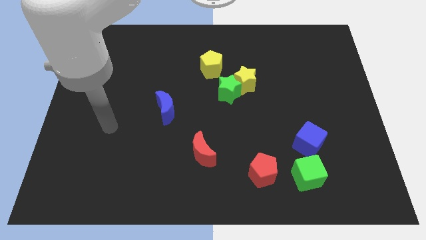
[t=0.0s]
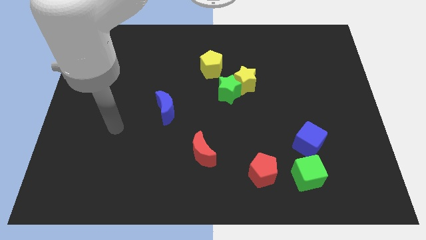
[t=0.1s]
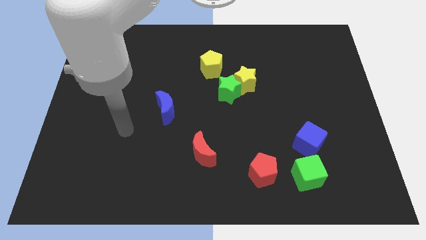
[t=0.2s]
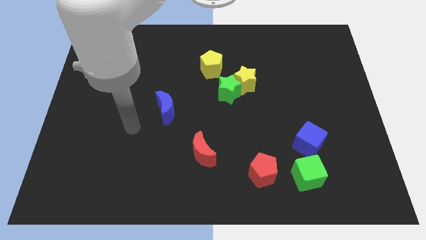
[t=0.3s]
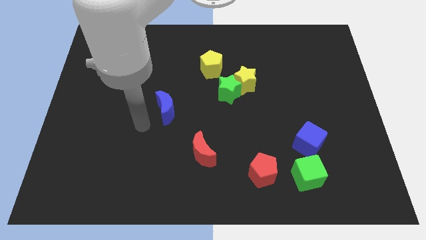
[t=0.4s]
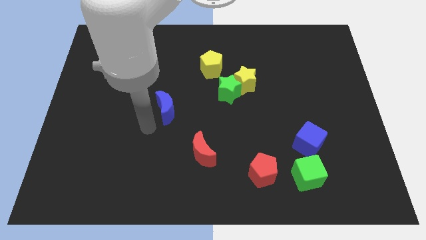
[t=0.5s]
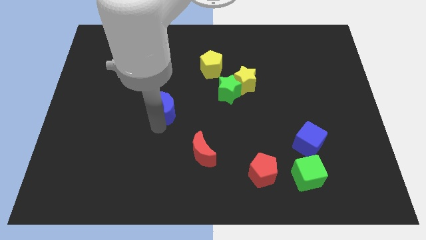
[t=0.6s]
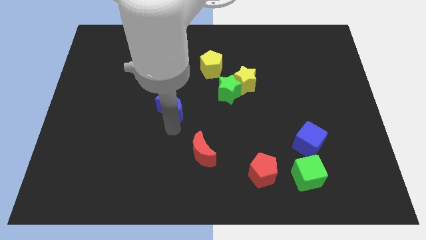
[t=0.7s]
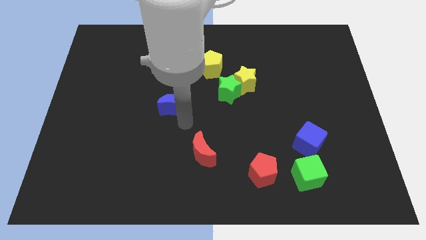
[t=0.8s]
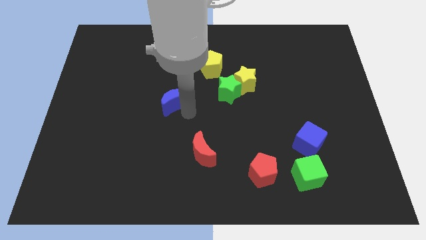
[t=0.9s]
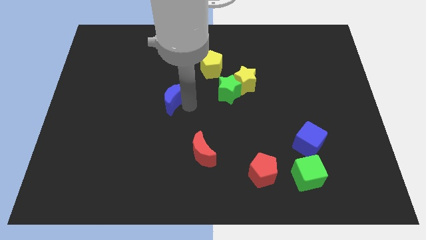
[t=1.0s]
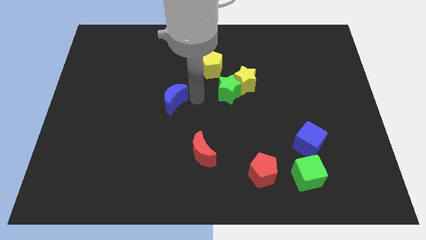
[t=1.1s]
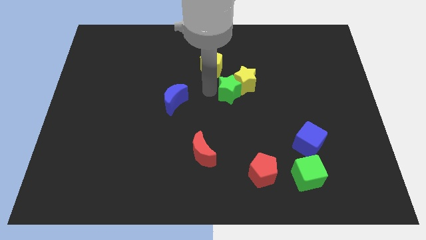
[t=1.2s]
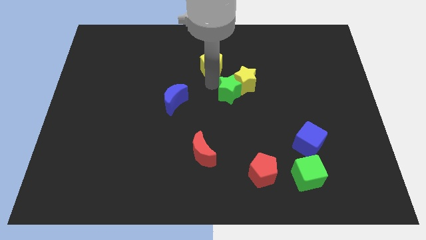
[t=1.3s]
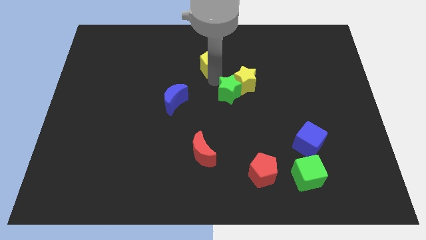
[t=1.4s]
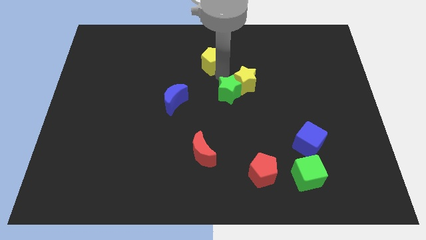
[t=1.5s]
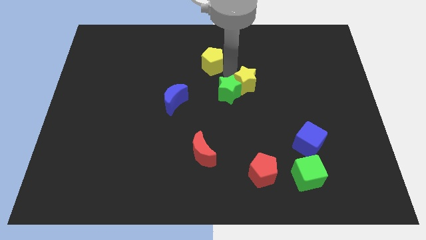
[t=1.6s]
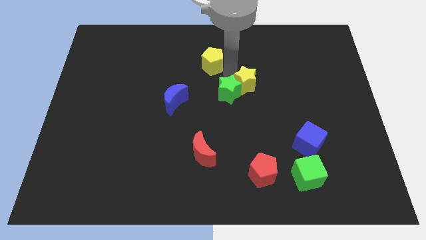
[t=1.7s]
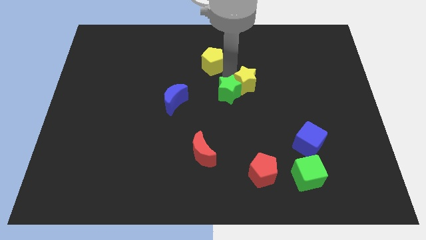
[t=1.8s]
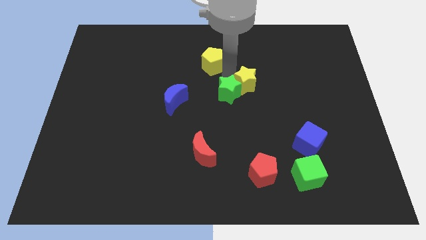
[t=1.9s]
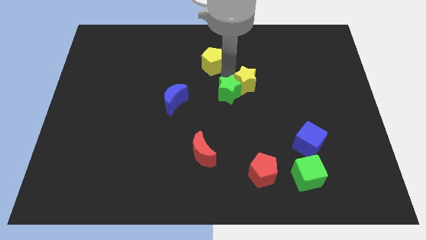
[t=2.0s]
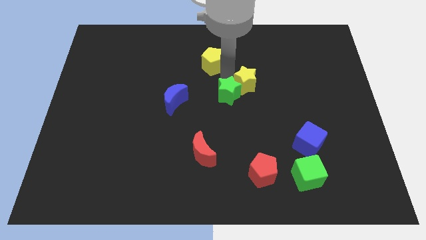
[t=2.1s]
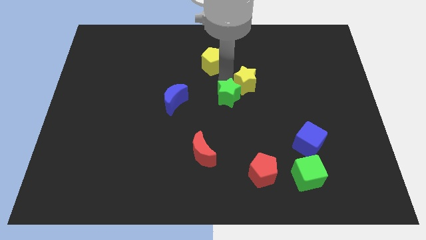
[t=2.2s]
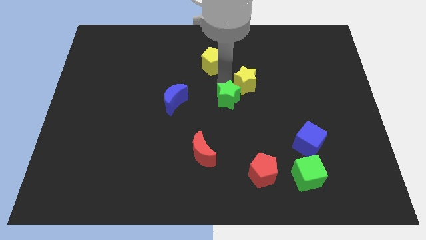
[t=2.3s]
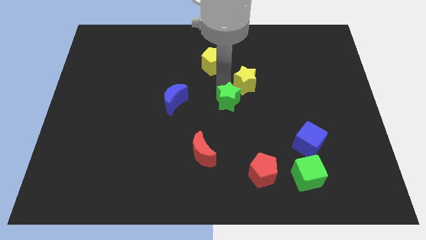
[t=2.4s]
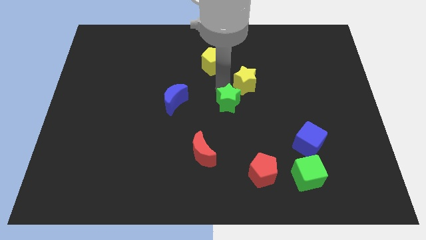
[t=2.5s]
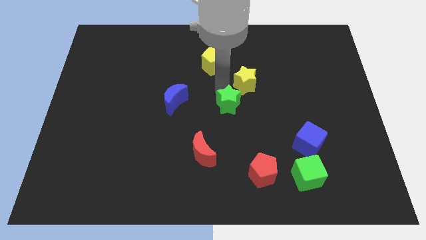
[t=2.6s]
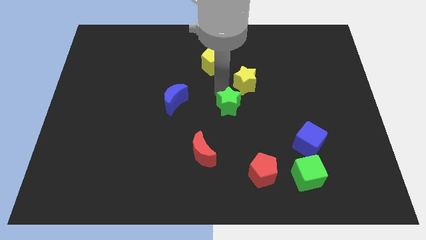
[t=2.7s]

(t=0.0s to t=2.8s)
move the green star away from the yellow star and yellow pentagon

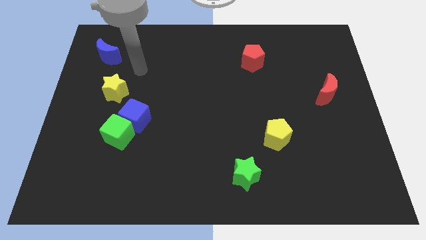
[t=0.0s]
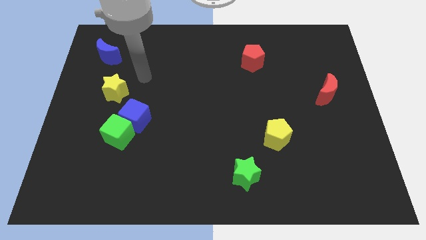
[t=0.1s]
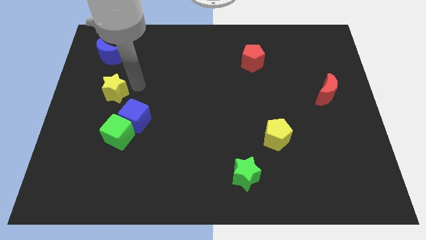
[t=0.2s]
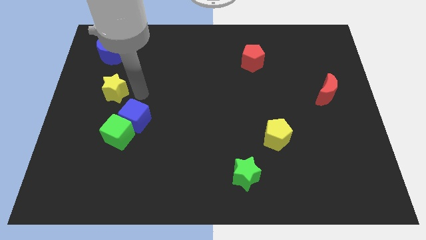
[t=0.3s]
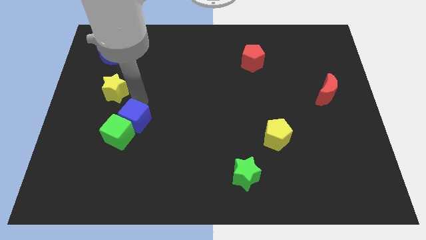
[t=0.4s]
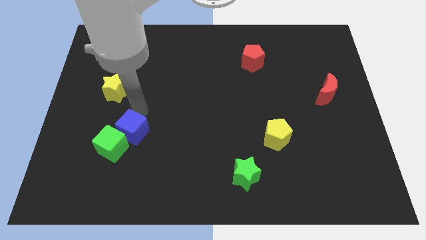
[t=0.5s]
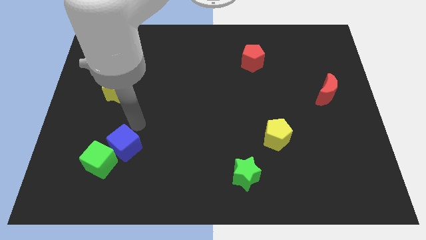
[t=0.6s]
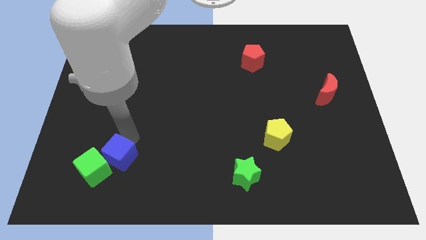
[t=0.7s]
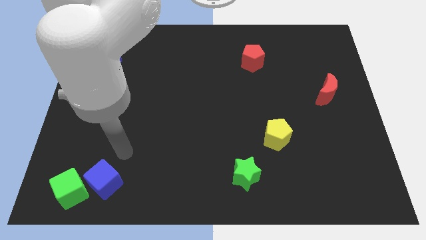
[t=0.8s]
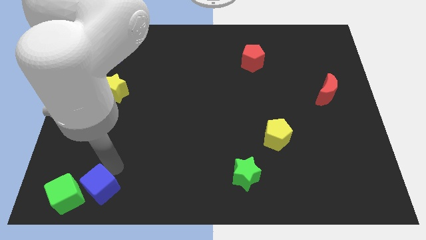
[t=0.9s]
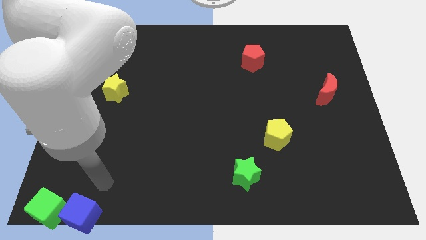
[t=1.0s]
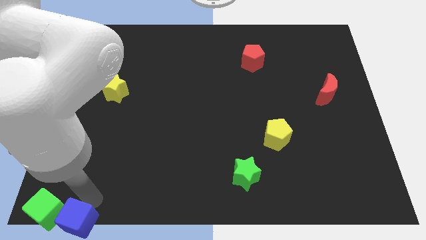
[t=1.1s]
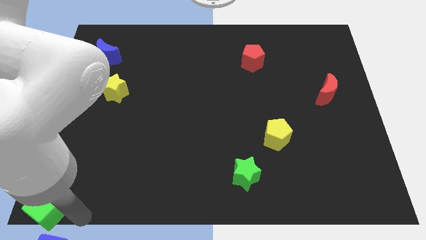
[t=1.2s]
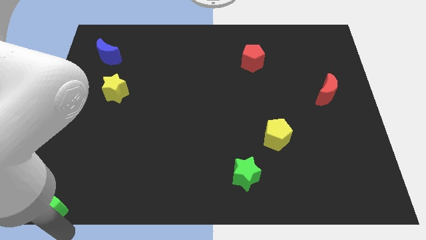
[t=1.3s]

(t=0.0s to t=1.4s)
move the green cube away from the blue cube

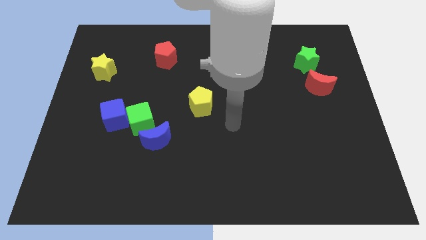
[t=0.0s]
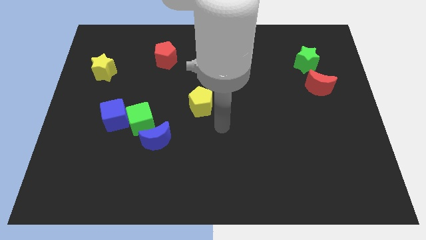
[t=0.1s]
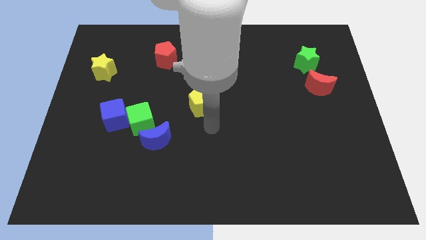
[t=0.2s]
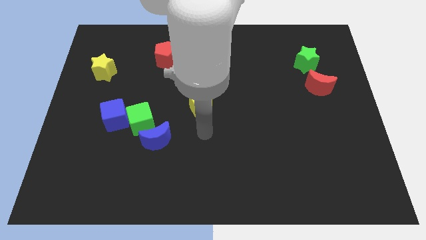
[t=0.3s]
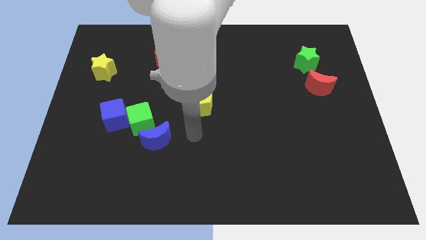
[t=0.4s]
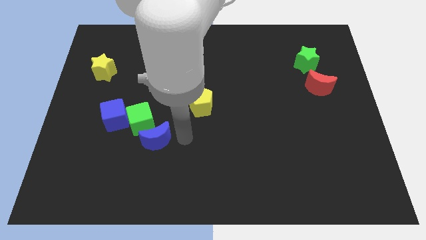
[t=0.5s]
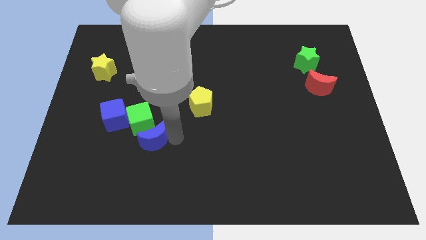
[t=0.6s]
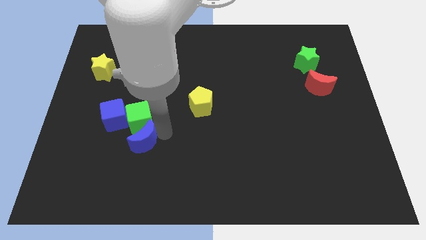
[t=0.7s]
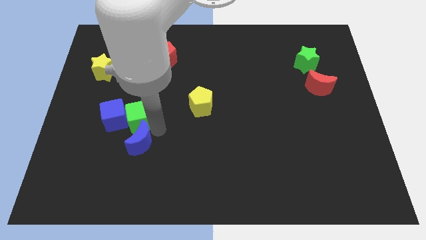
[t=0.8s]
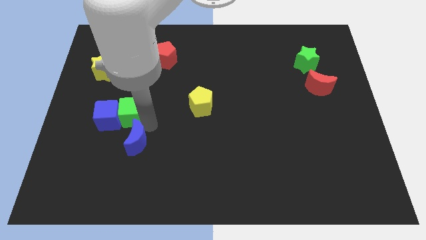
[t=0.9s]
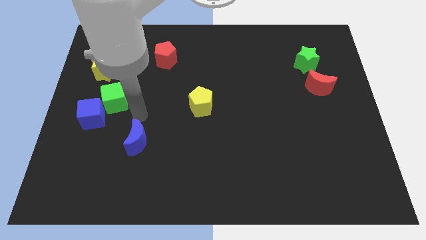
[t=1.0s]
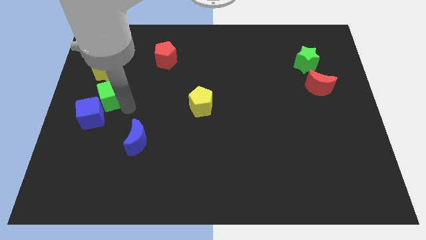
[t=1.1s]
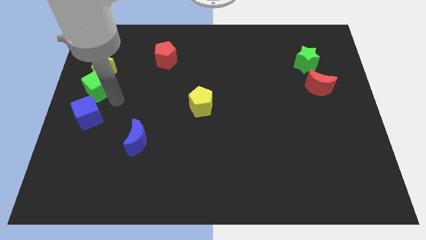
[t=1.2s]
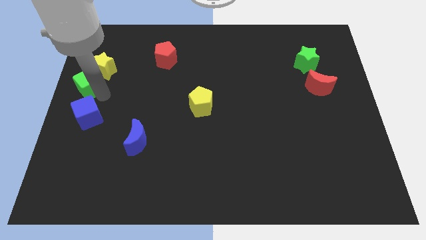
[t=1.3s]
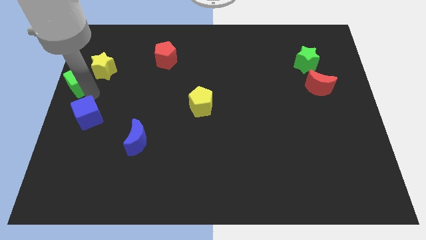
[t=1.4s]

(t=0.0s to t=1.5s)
pull the blue cube apart from the green cube

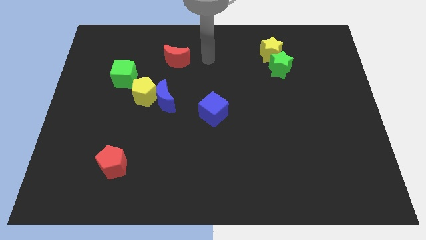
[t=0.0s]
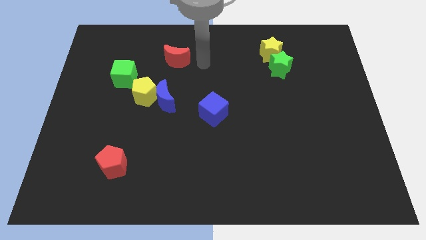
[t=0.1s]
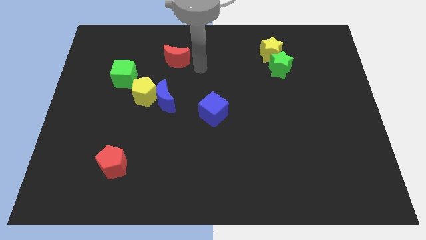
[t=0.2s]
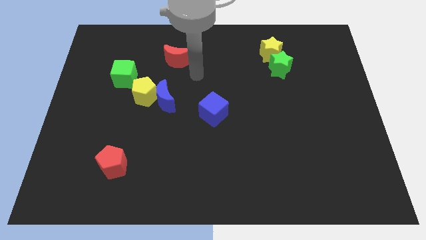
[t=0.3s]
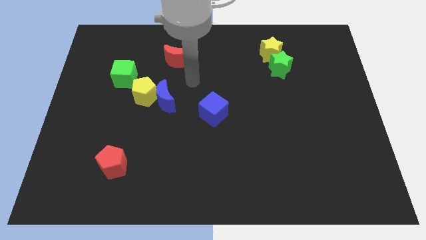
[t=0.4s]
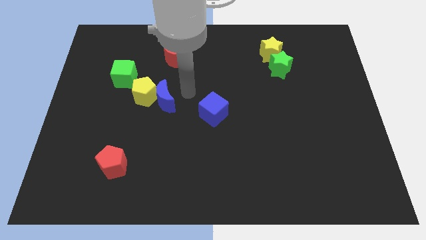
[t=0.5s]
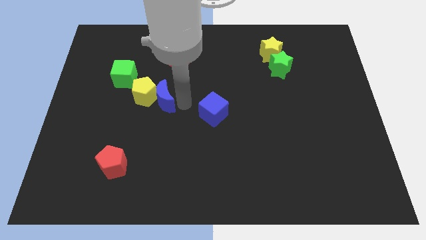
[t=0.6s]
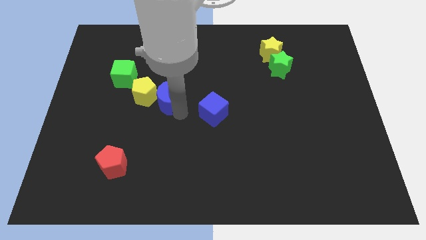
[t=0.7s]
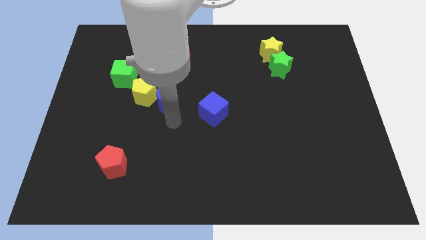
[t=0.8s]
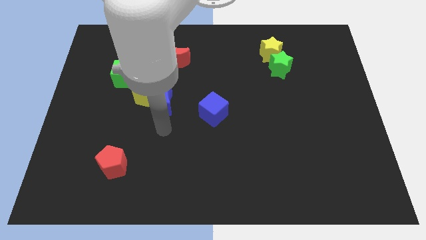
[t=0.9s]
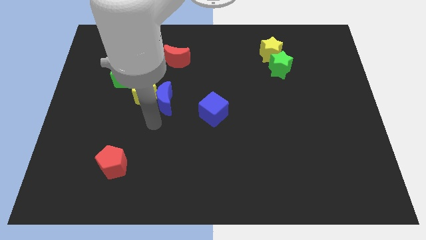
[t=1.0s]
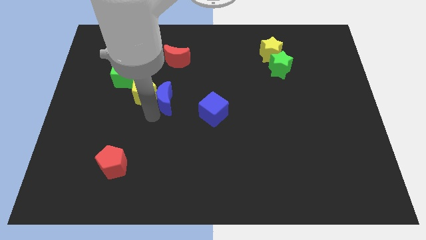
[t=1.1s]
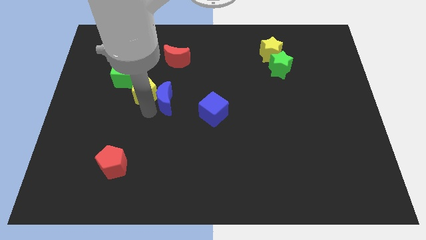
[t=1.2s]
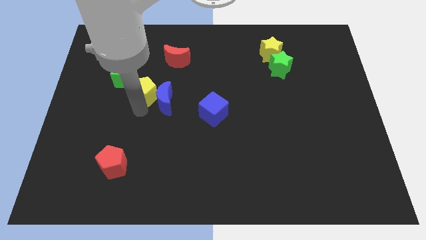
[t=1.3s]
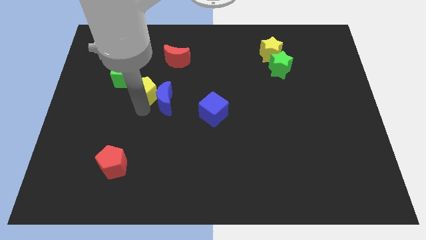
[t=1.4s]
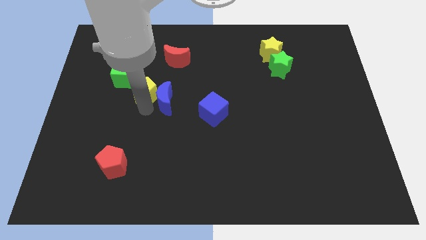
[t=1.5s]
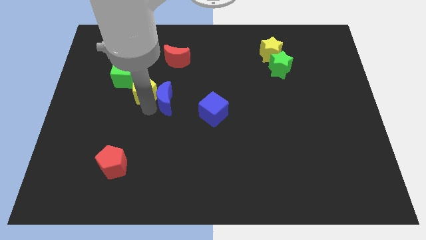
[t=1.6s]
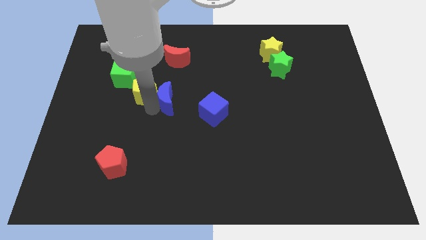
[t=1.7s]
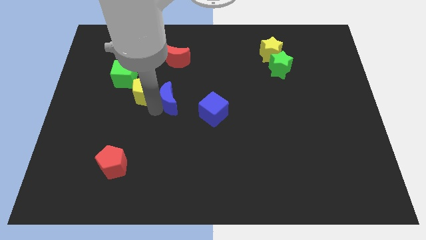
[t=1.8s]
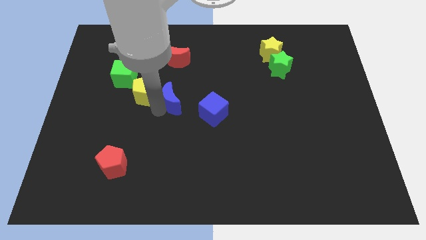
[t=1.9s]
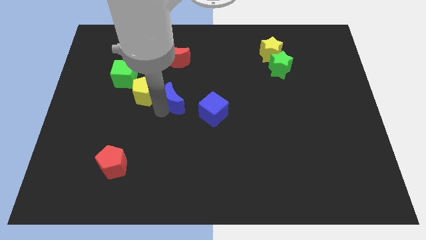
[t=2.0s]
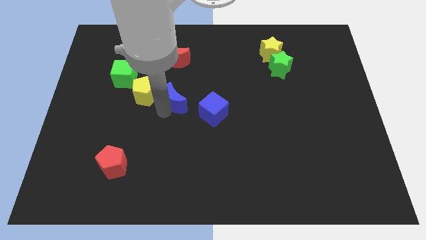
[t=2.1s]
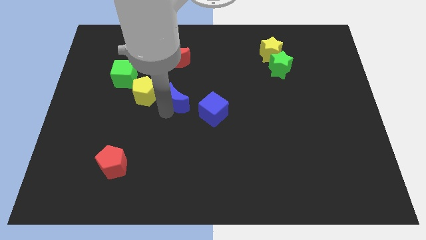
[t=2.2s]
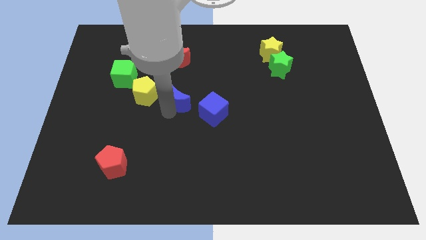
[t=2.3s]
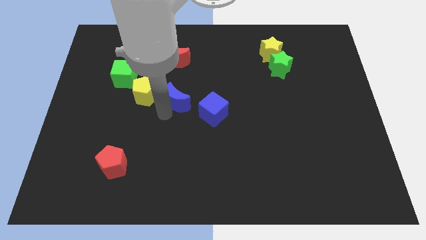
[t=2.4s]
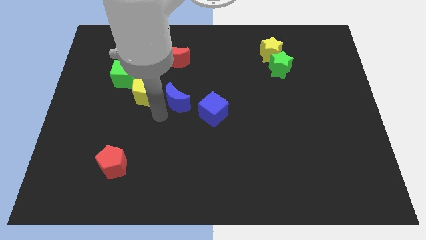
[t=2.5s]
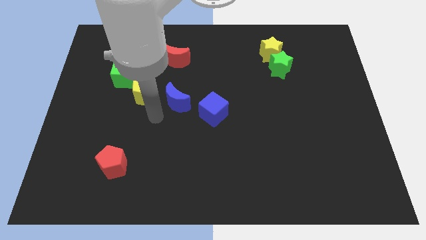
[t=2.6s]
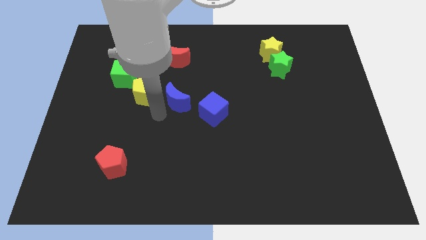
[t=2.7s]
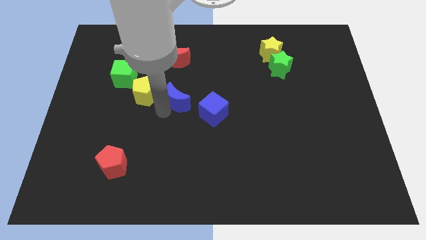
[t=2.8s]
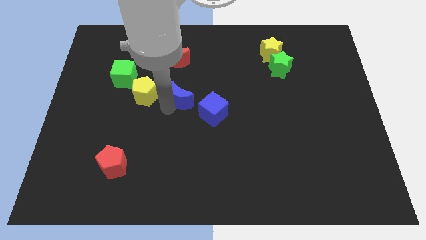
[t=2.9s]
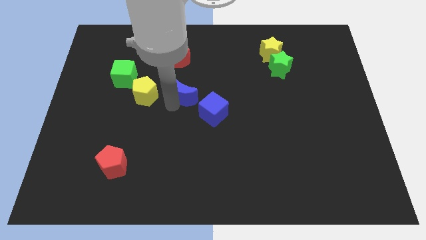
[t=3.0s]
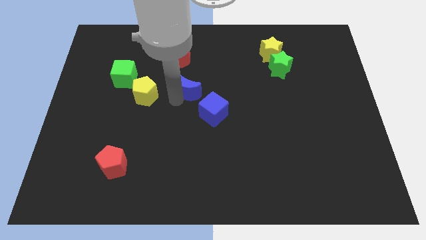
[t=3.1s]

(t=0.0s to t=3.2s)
separate the blue moon from the yellow pentagon

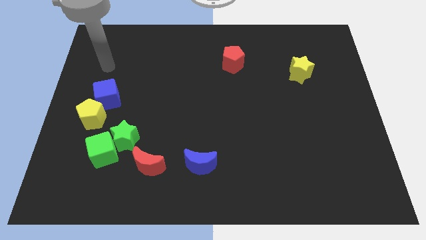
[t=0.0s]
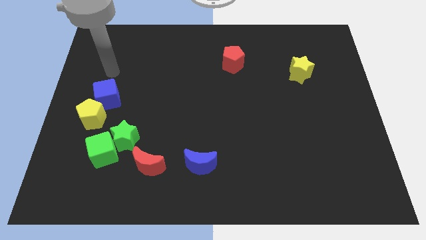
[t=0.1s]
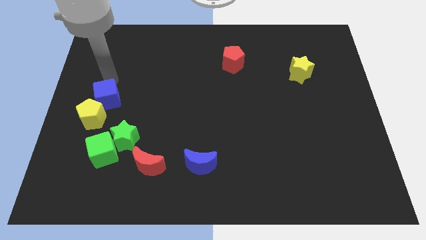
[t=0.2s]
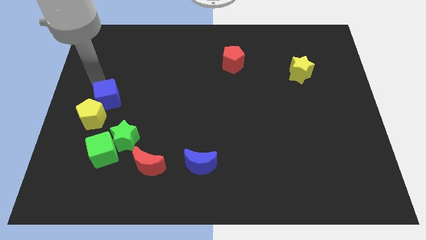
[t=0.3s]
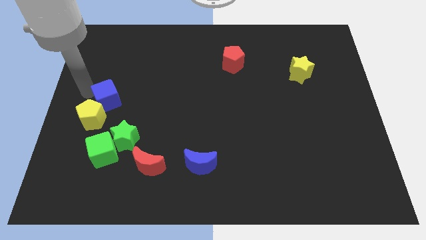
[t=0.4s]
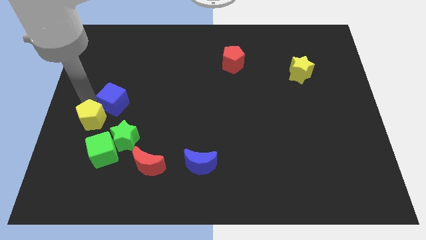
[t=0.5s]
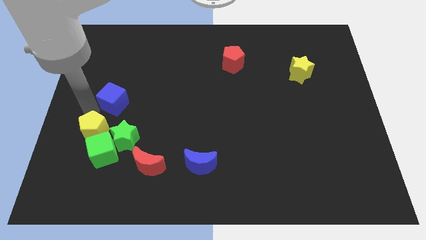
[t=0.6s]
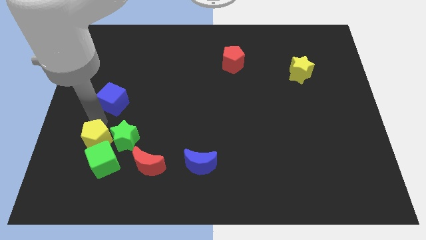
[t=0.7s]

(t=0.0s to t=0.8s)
separate the blue cube from the yellow pentagon
